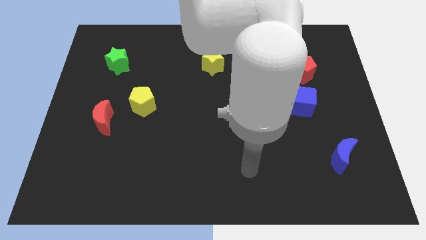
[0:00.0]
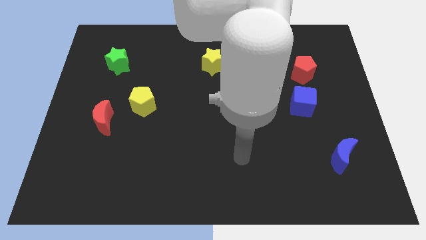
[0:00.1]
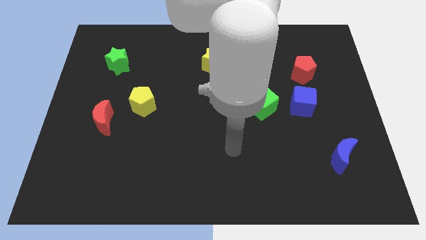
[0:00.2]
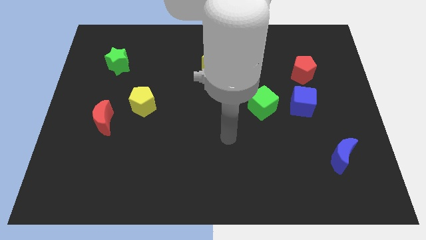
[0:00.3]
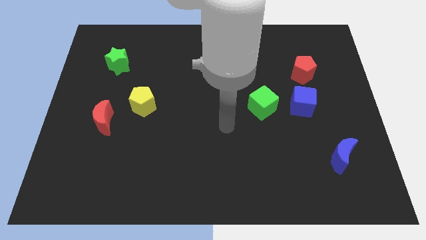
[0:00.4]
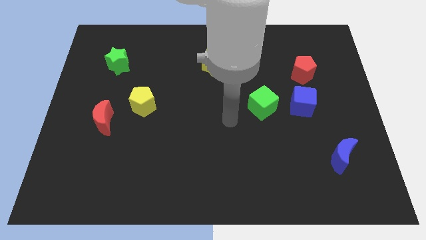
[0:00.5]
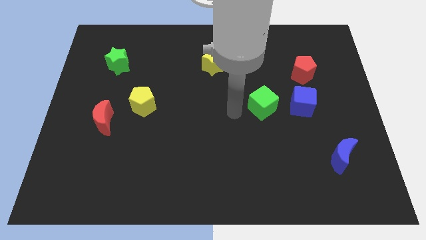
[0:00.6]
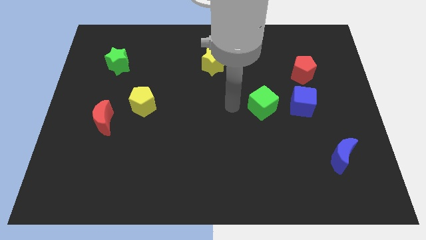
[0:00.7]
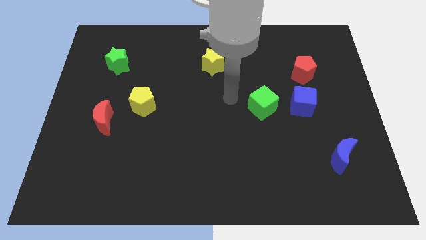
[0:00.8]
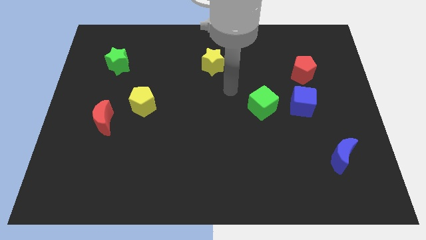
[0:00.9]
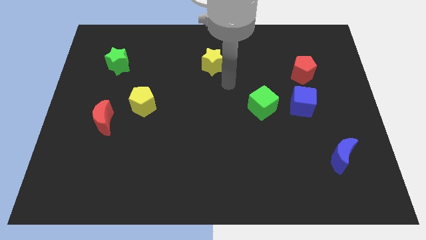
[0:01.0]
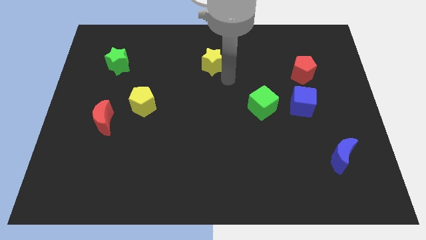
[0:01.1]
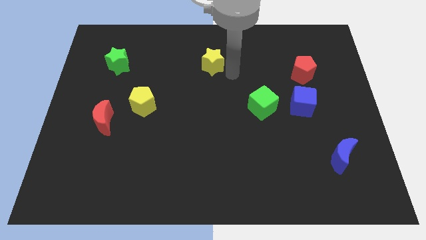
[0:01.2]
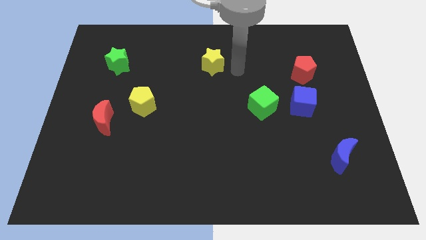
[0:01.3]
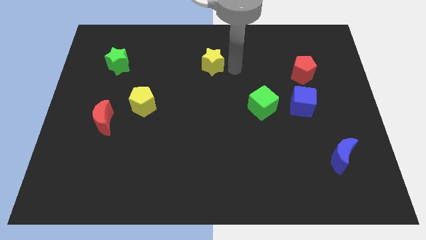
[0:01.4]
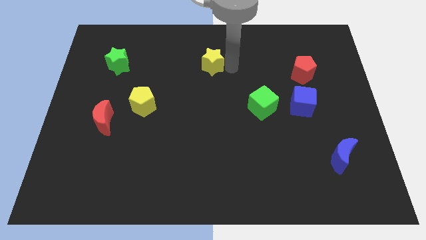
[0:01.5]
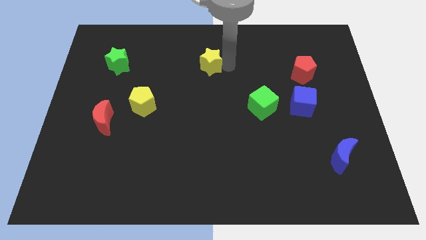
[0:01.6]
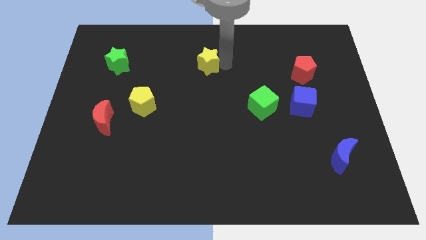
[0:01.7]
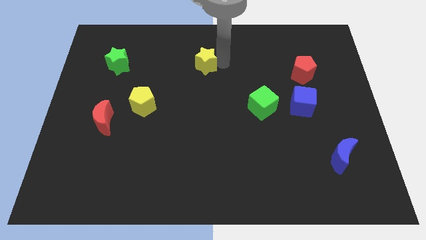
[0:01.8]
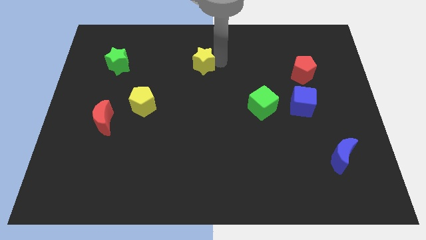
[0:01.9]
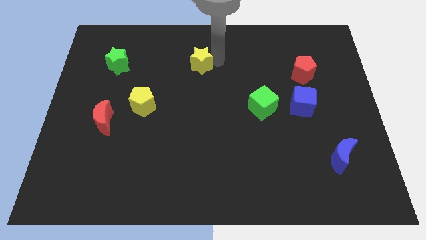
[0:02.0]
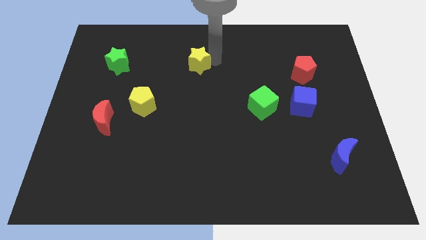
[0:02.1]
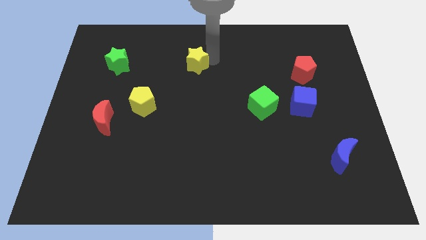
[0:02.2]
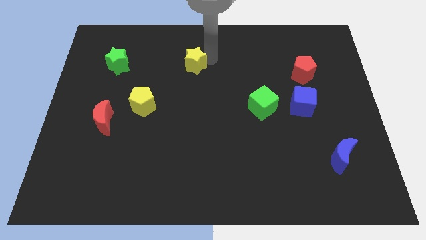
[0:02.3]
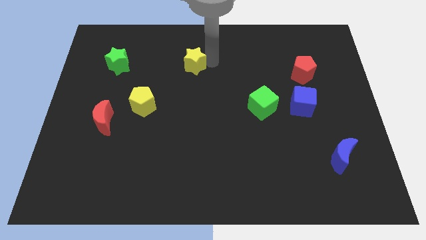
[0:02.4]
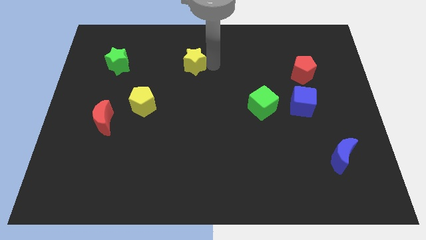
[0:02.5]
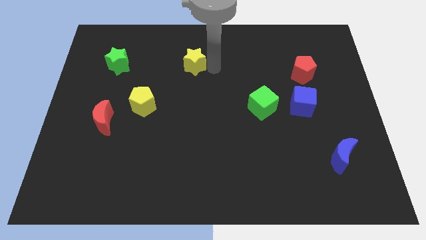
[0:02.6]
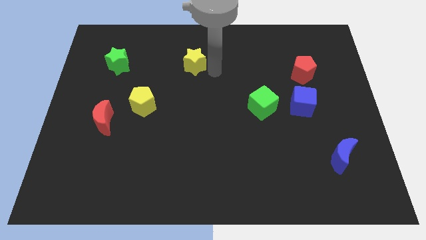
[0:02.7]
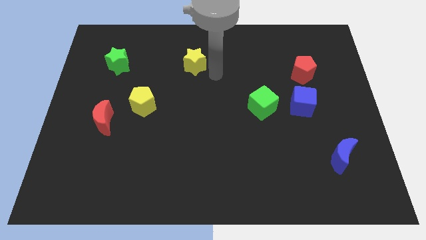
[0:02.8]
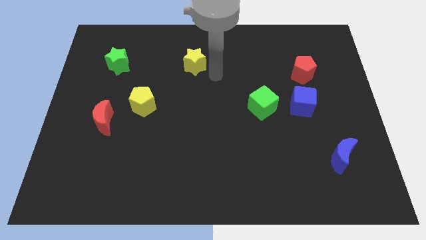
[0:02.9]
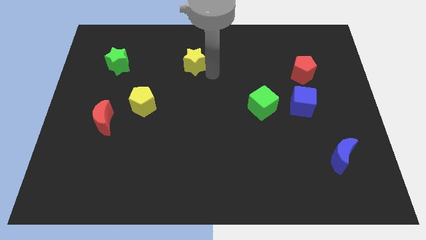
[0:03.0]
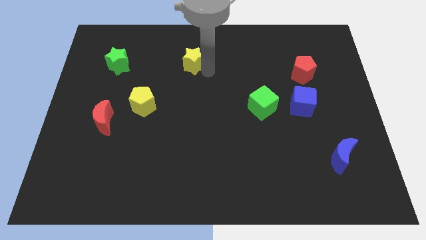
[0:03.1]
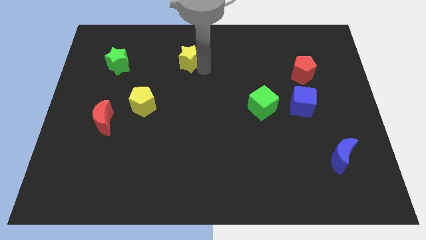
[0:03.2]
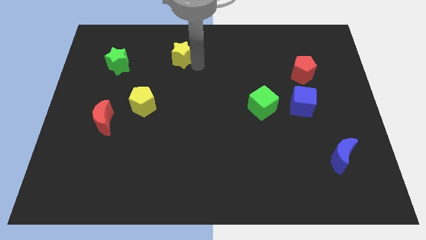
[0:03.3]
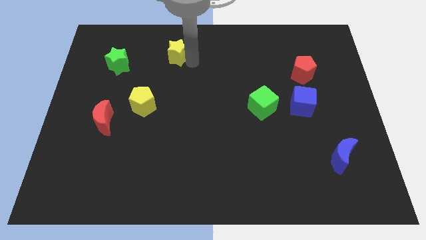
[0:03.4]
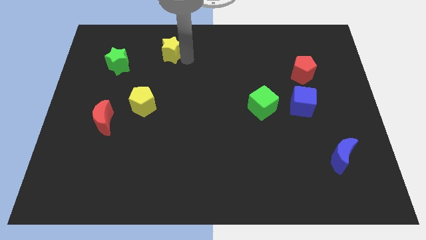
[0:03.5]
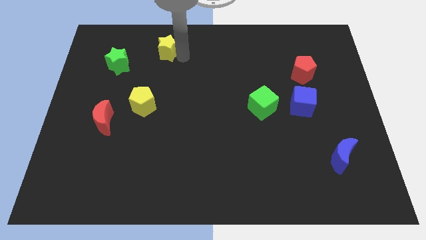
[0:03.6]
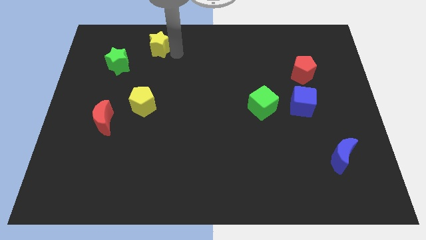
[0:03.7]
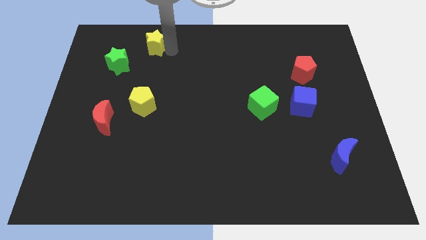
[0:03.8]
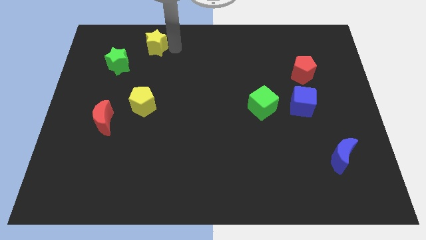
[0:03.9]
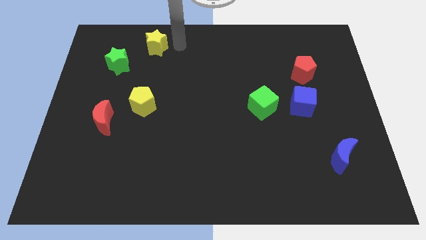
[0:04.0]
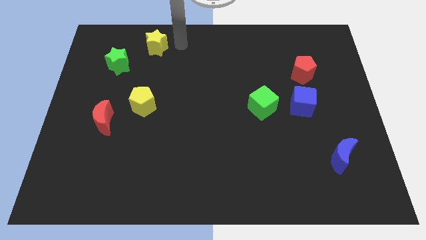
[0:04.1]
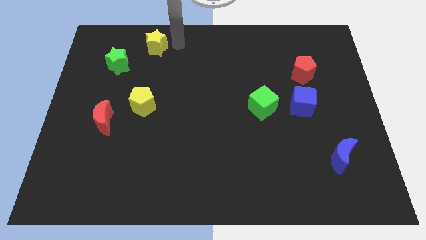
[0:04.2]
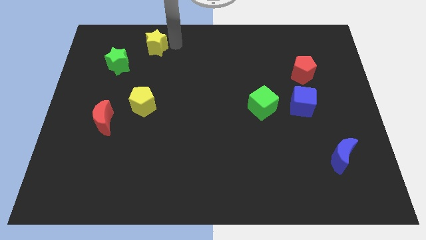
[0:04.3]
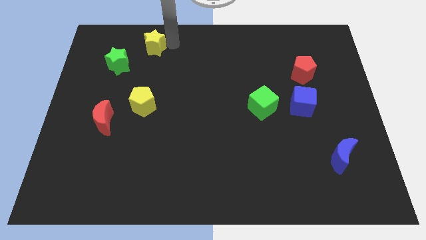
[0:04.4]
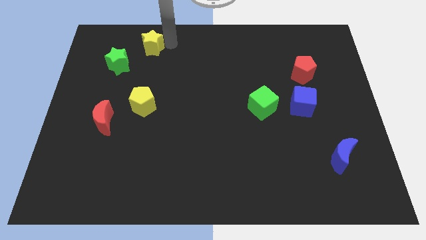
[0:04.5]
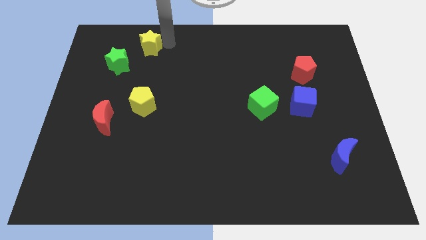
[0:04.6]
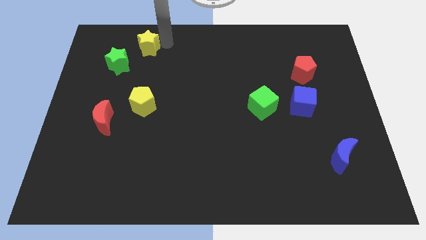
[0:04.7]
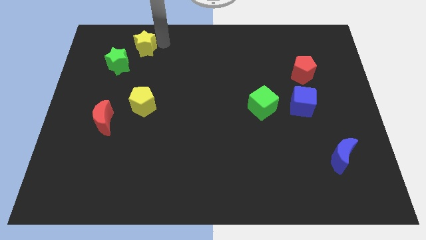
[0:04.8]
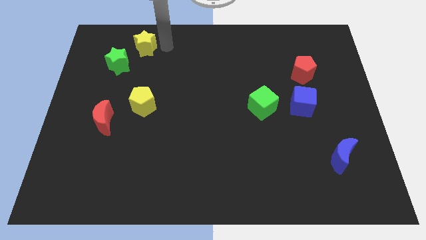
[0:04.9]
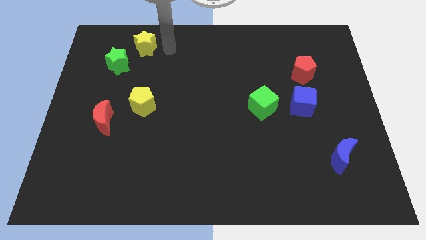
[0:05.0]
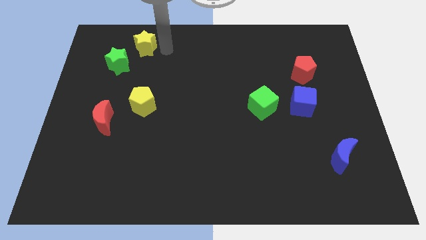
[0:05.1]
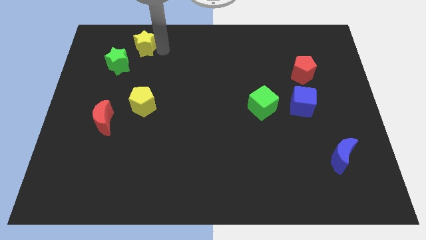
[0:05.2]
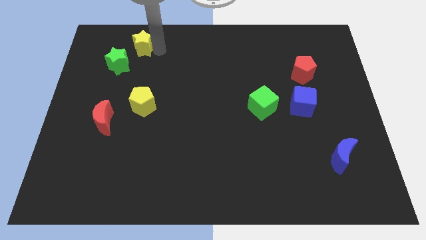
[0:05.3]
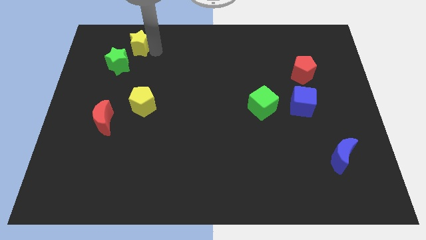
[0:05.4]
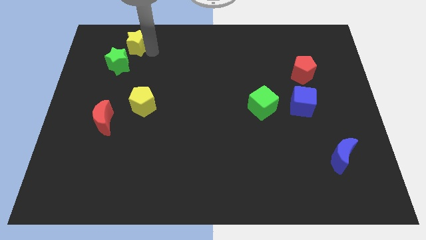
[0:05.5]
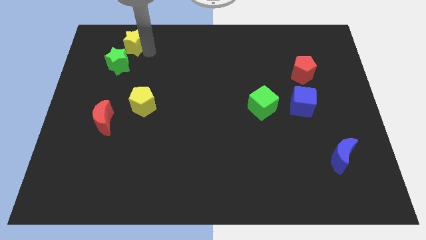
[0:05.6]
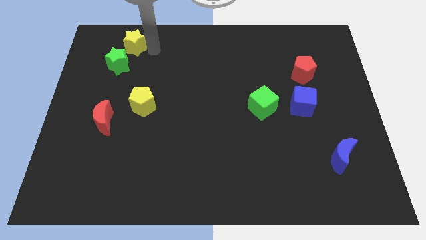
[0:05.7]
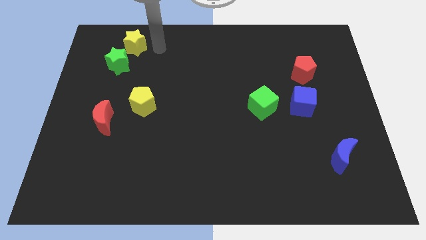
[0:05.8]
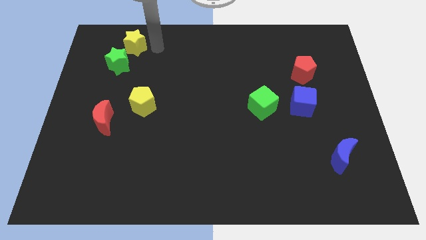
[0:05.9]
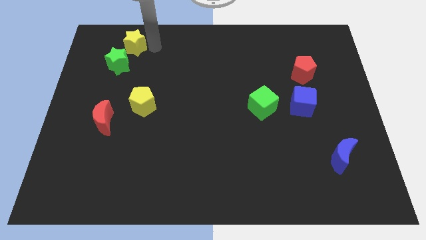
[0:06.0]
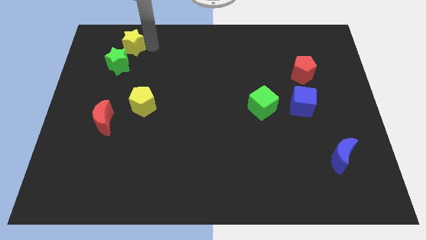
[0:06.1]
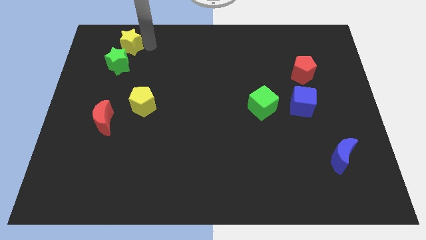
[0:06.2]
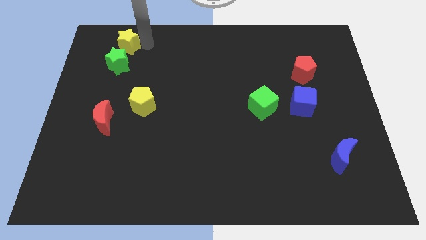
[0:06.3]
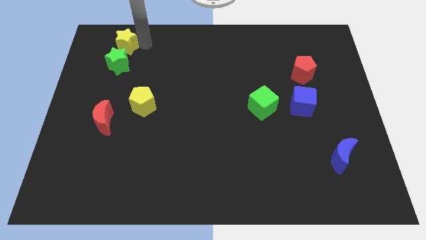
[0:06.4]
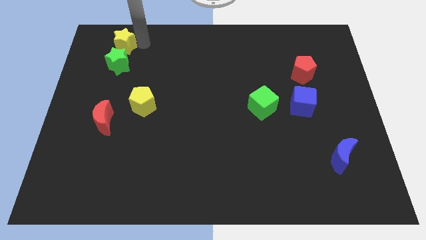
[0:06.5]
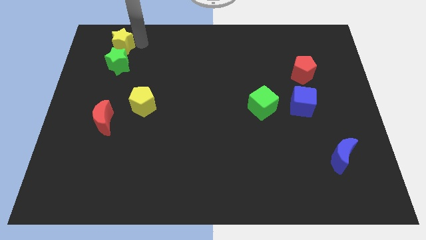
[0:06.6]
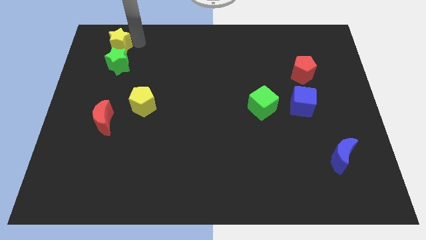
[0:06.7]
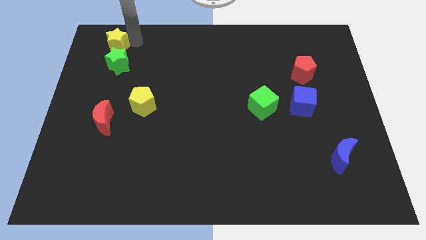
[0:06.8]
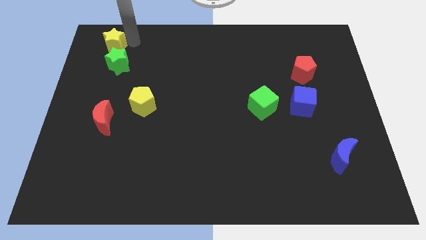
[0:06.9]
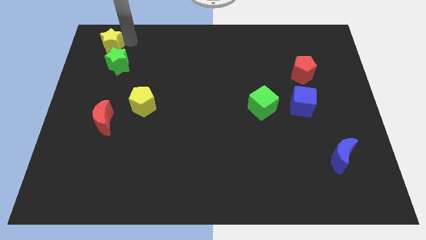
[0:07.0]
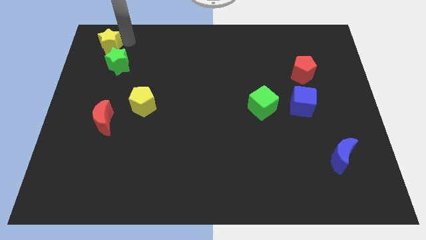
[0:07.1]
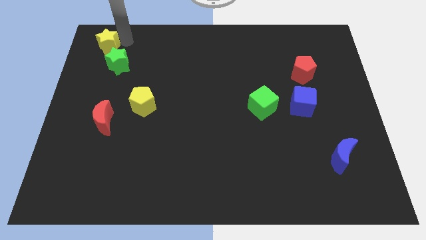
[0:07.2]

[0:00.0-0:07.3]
push the yellow star to the upper left corner
